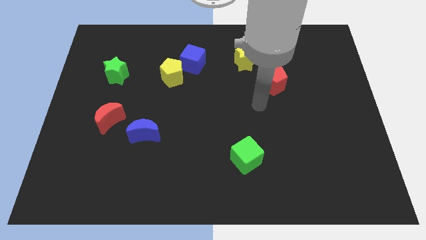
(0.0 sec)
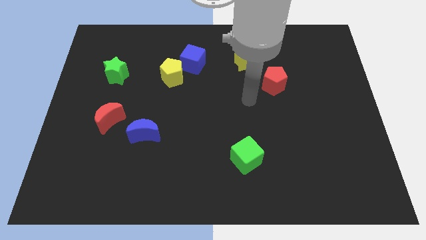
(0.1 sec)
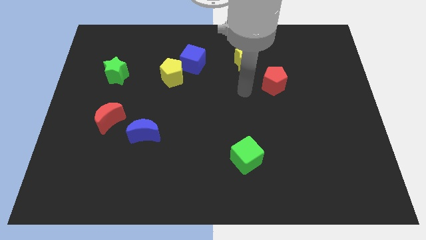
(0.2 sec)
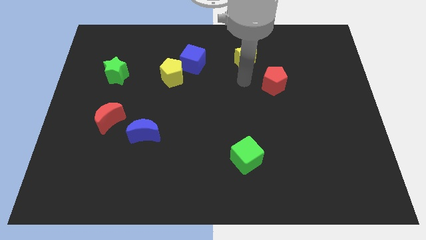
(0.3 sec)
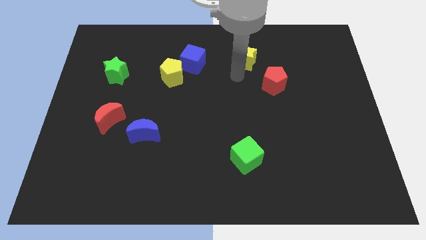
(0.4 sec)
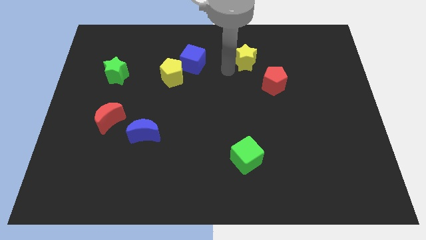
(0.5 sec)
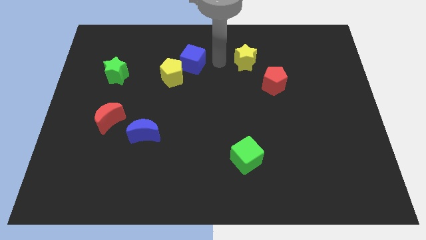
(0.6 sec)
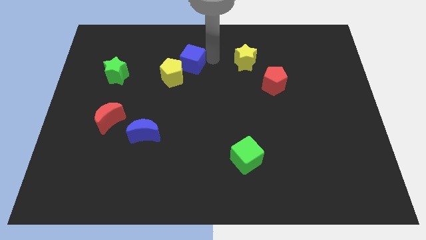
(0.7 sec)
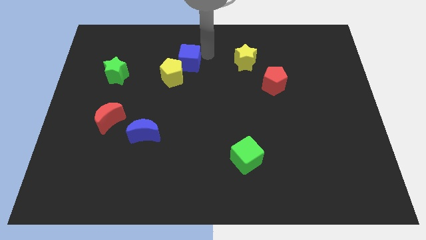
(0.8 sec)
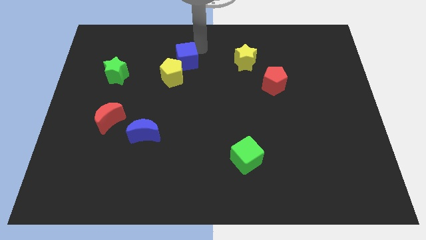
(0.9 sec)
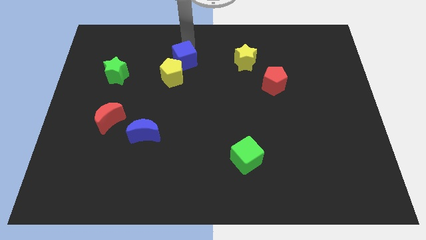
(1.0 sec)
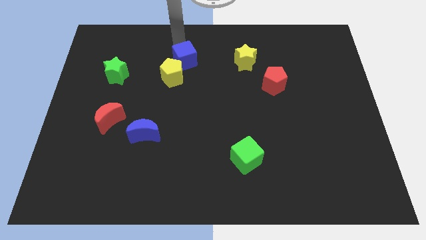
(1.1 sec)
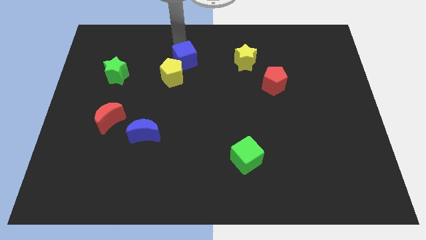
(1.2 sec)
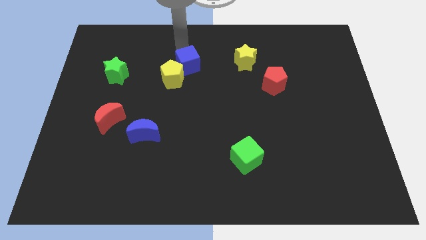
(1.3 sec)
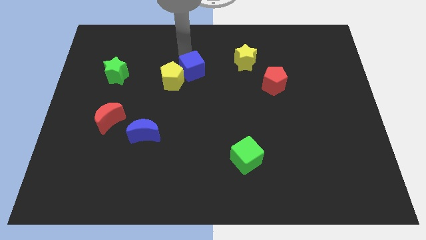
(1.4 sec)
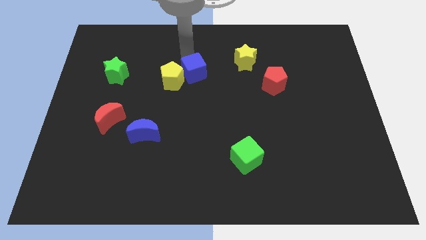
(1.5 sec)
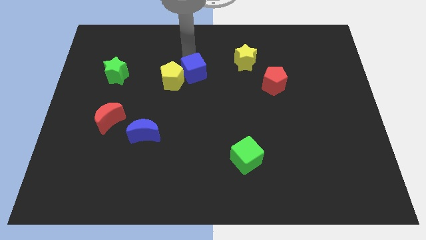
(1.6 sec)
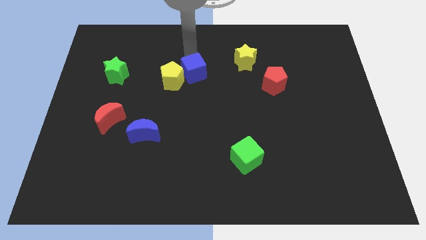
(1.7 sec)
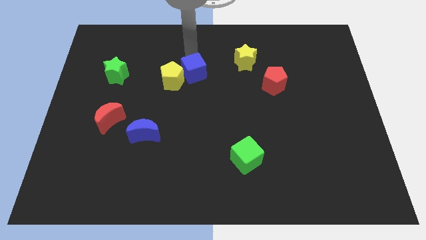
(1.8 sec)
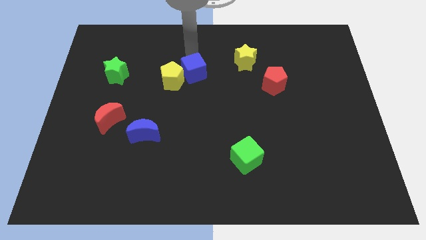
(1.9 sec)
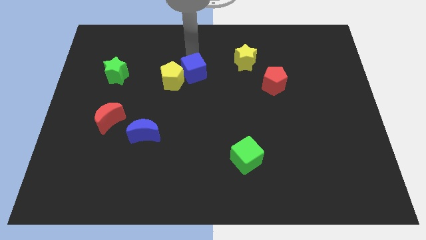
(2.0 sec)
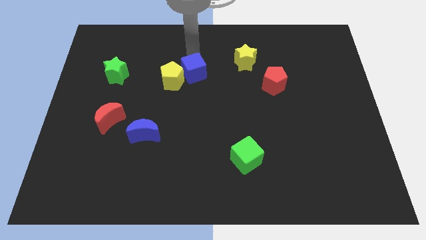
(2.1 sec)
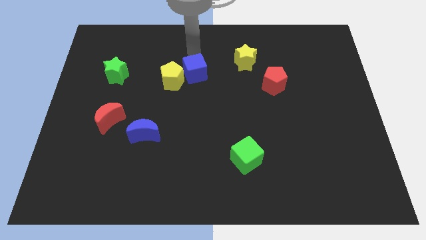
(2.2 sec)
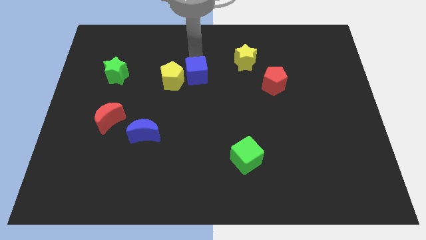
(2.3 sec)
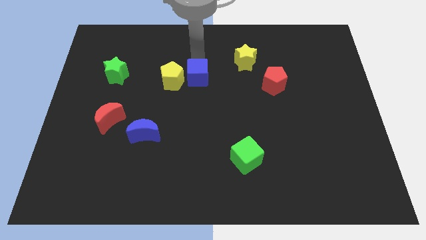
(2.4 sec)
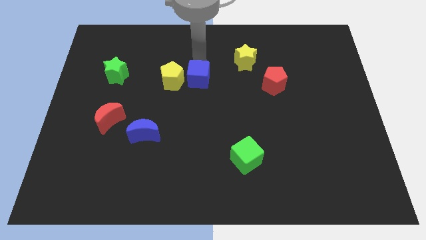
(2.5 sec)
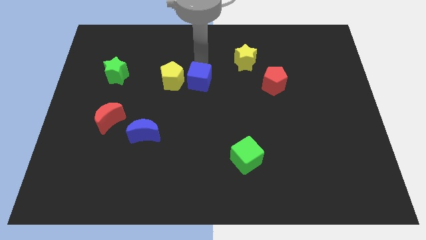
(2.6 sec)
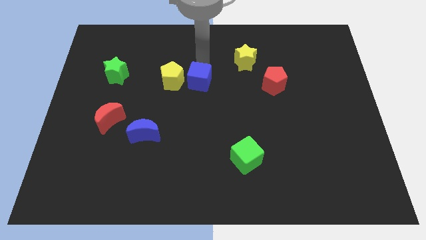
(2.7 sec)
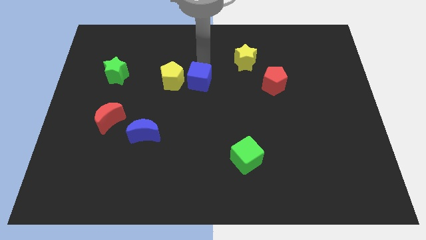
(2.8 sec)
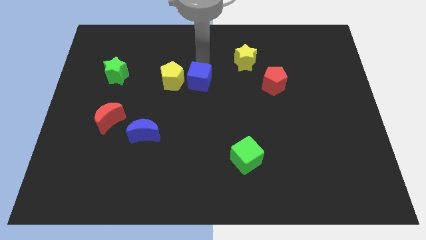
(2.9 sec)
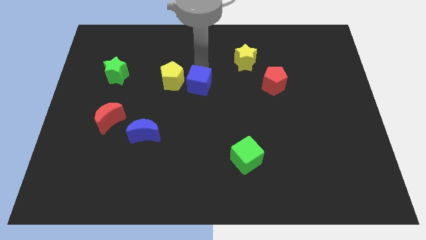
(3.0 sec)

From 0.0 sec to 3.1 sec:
slide the blue cube a bit downwards

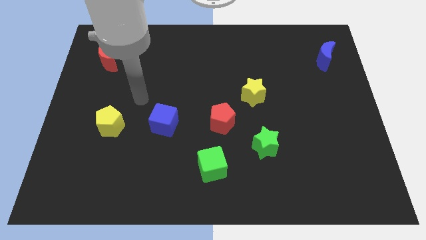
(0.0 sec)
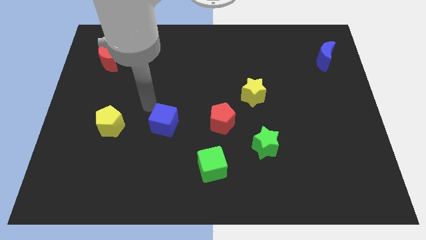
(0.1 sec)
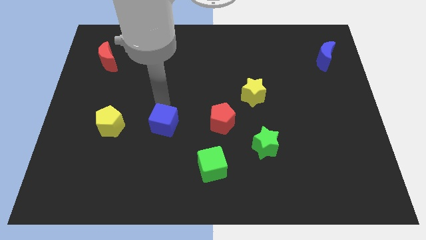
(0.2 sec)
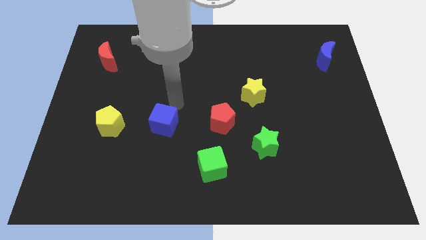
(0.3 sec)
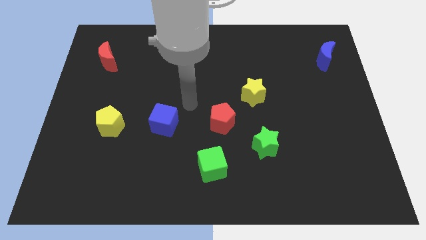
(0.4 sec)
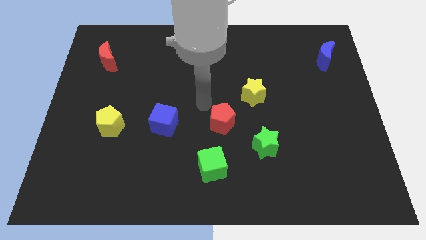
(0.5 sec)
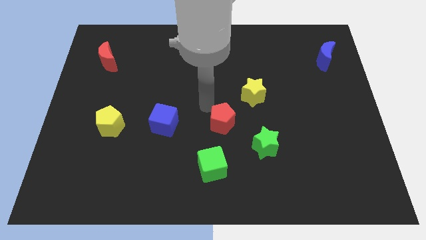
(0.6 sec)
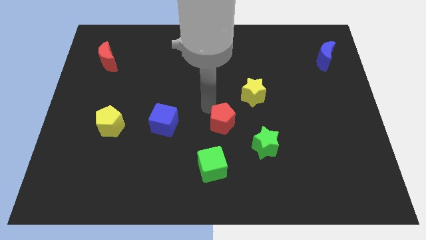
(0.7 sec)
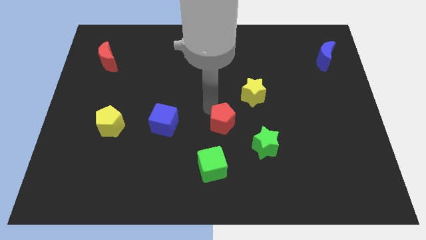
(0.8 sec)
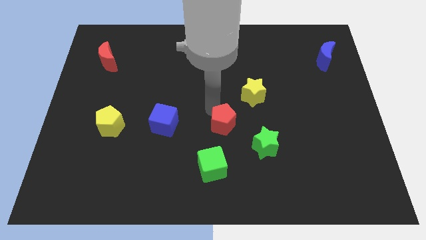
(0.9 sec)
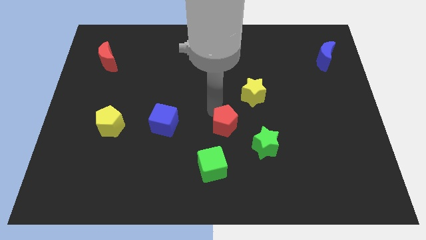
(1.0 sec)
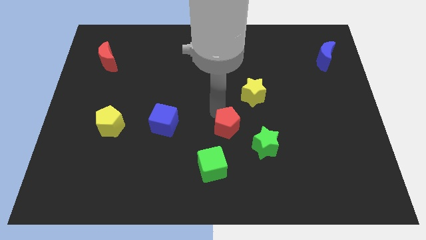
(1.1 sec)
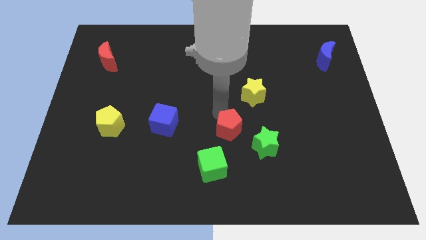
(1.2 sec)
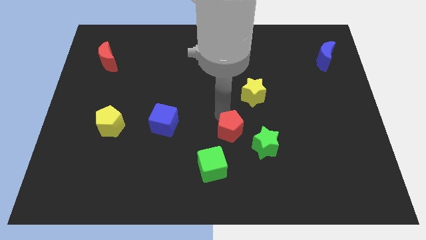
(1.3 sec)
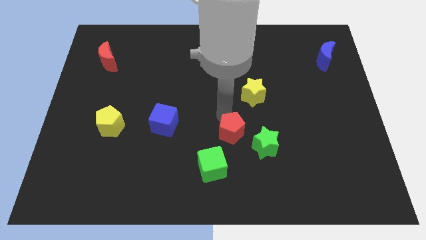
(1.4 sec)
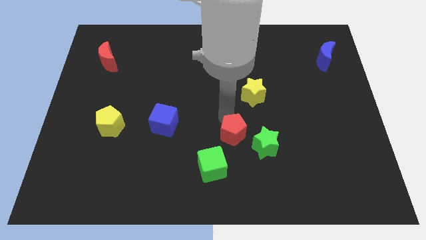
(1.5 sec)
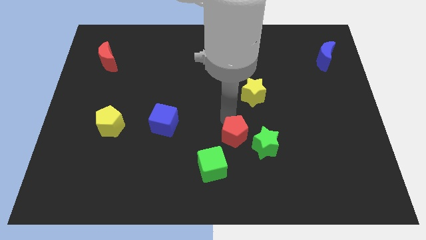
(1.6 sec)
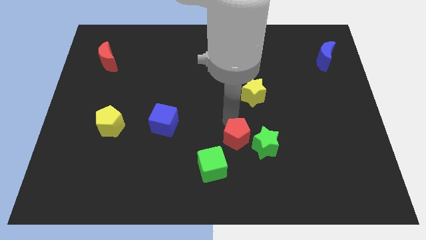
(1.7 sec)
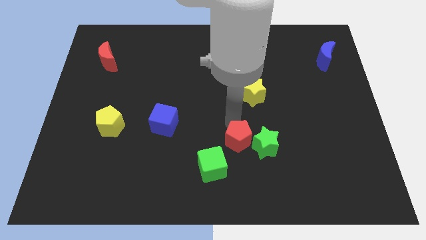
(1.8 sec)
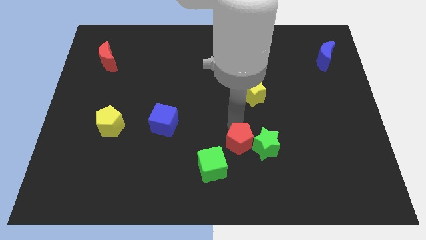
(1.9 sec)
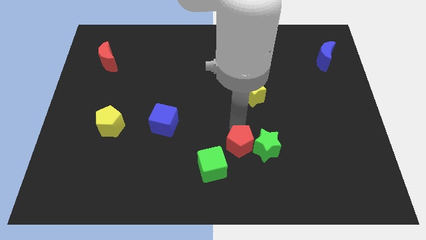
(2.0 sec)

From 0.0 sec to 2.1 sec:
slightly move the red pentagon diagonally downwards and to the right

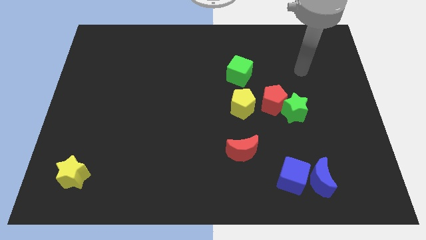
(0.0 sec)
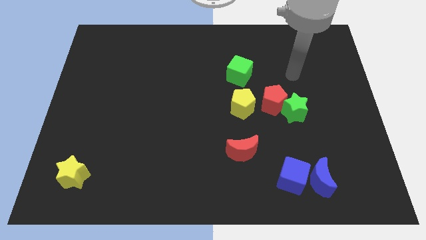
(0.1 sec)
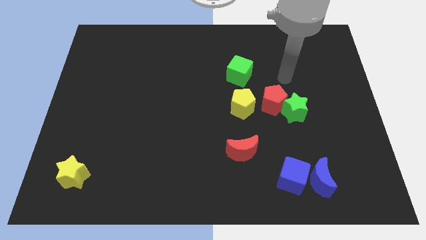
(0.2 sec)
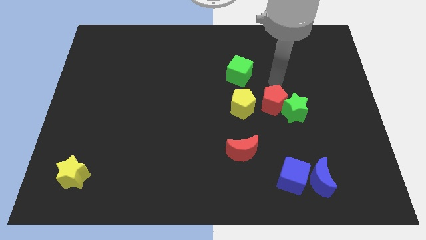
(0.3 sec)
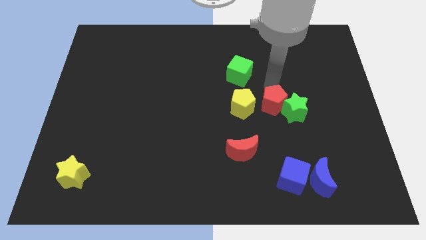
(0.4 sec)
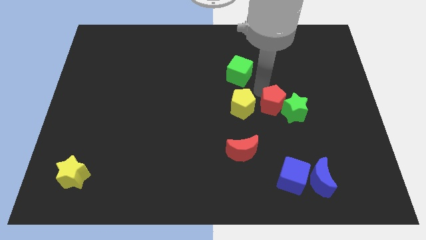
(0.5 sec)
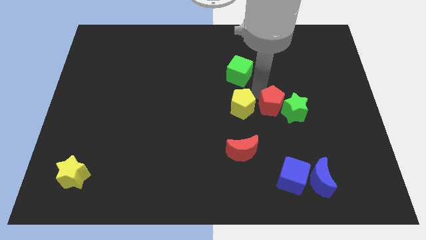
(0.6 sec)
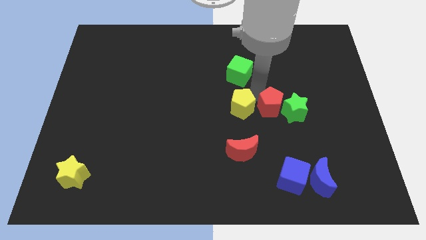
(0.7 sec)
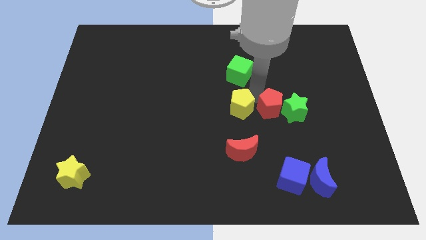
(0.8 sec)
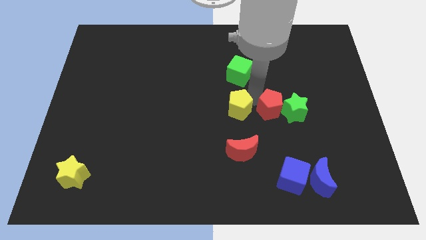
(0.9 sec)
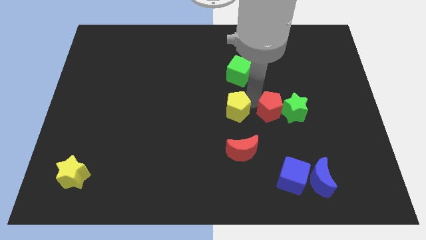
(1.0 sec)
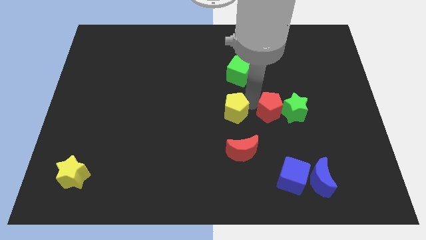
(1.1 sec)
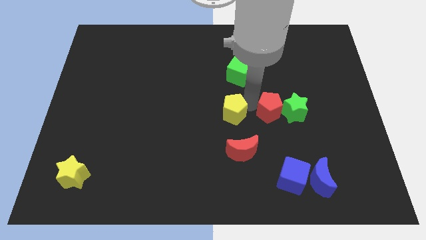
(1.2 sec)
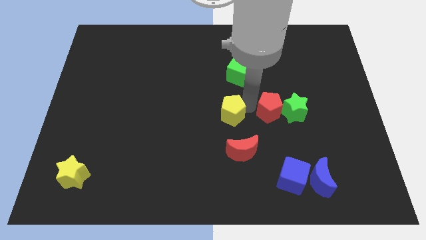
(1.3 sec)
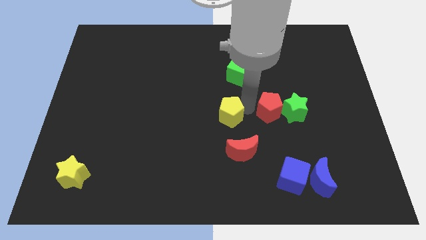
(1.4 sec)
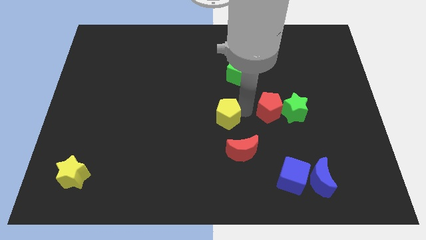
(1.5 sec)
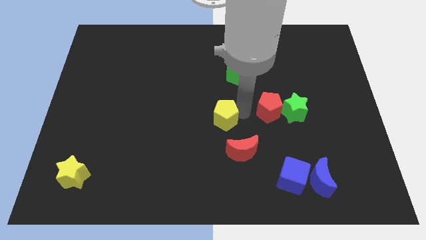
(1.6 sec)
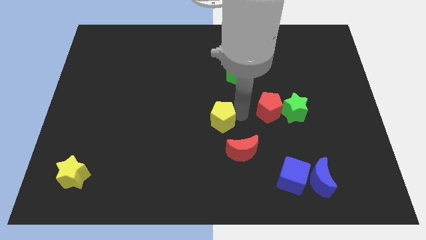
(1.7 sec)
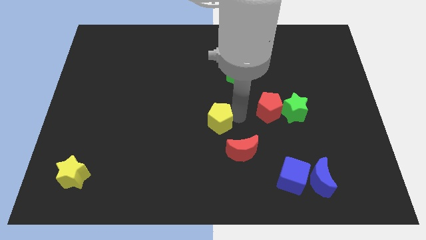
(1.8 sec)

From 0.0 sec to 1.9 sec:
slightly slide the yellow pentagon down and left

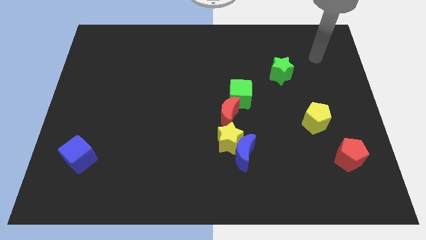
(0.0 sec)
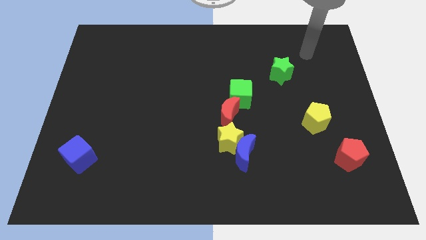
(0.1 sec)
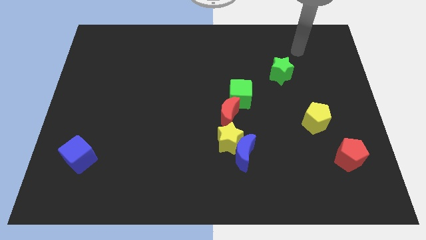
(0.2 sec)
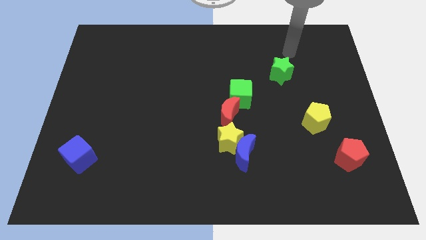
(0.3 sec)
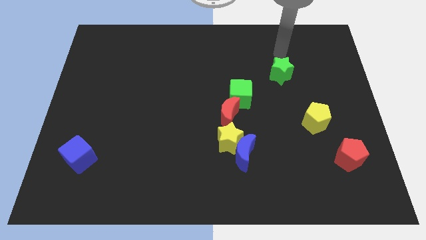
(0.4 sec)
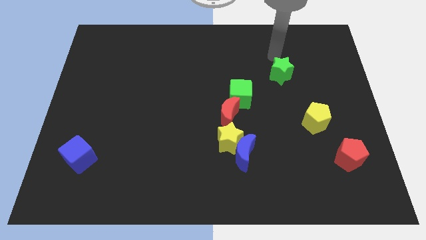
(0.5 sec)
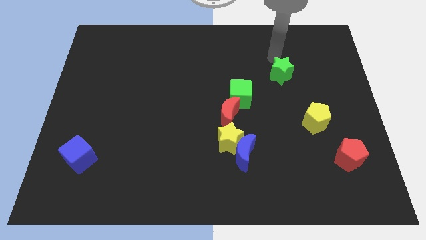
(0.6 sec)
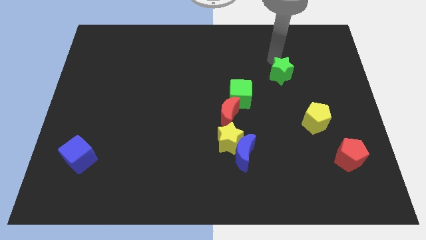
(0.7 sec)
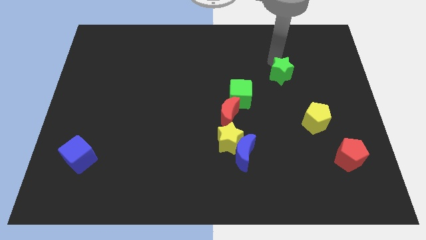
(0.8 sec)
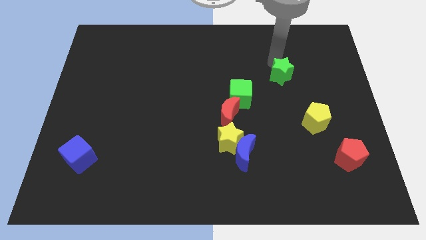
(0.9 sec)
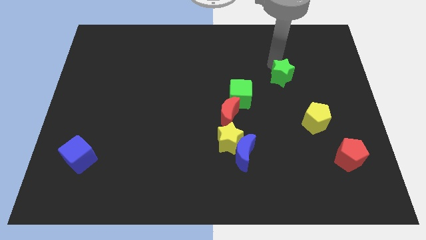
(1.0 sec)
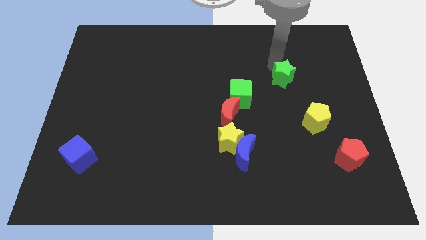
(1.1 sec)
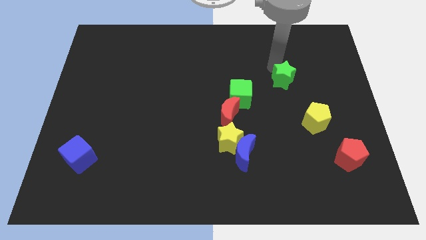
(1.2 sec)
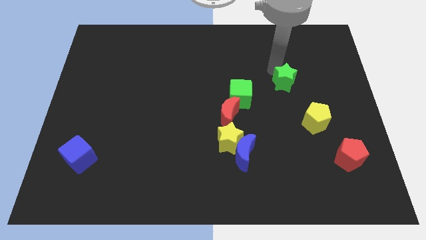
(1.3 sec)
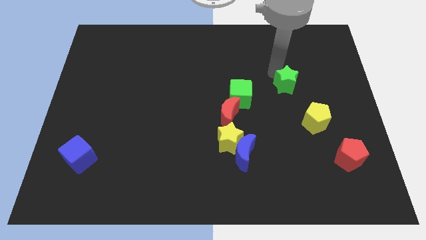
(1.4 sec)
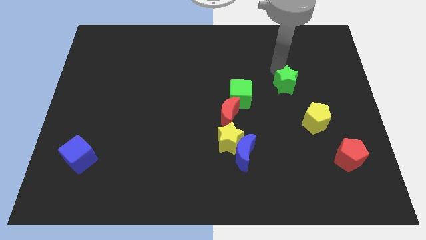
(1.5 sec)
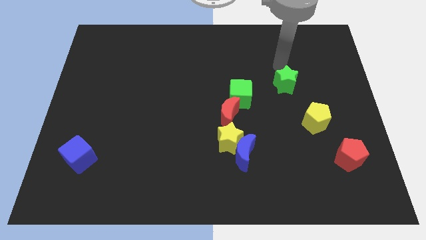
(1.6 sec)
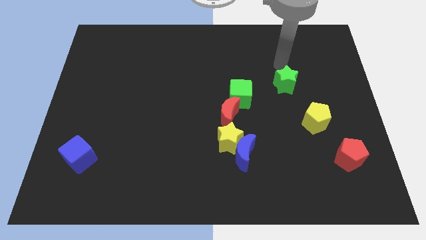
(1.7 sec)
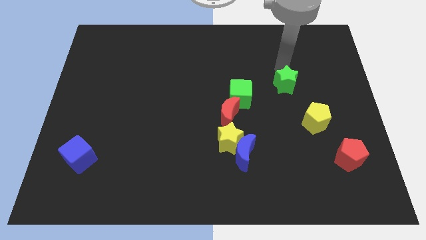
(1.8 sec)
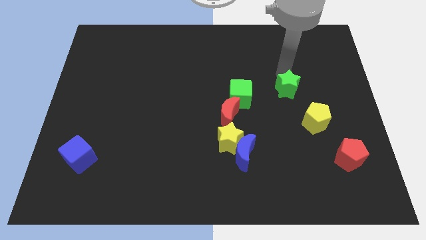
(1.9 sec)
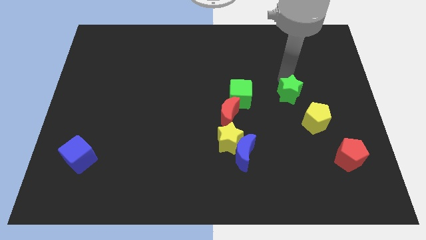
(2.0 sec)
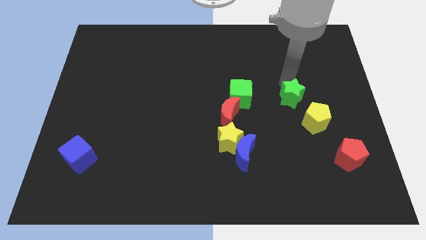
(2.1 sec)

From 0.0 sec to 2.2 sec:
slightly push the green star downwards
